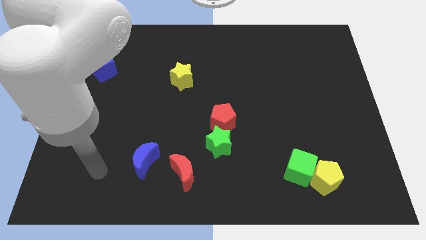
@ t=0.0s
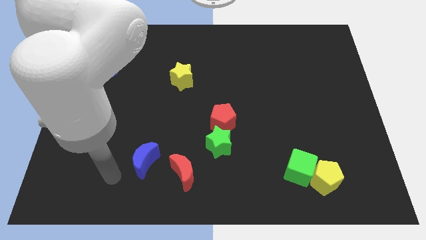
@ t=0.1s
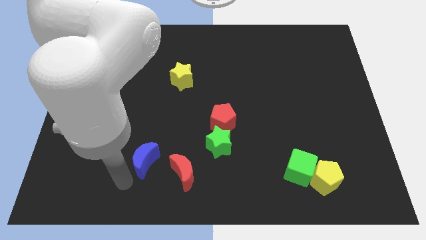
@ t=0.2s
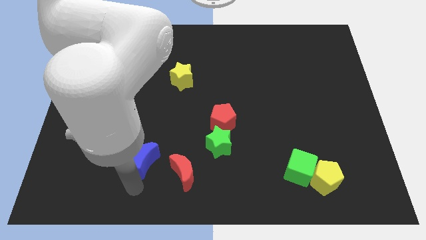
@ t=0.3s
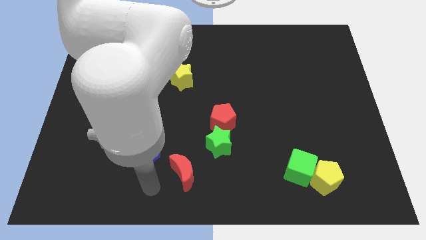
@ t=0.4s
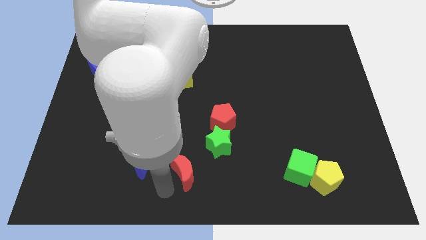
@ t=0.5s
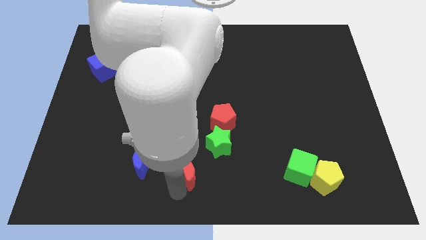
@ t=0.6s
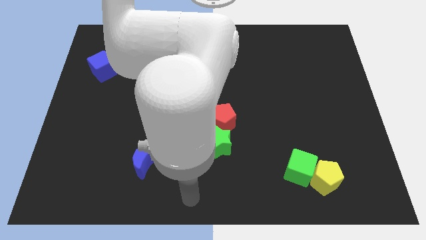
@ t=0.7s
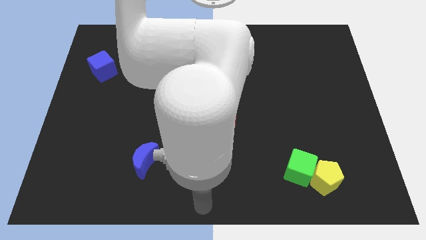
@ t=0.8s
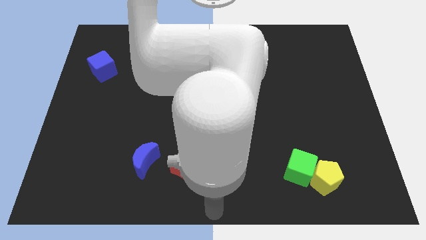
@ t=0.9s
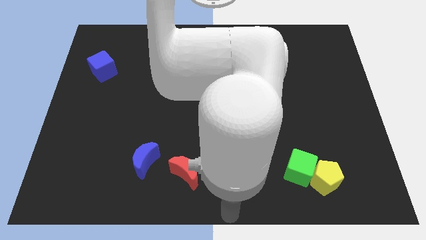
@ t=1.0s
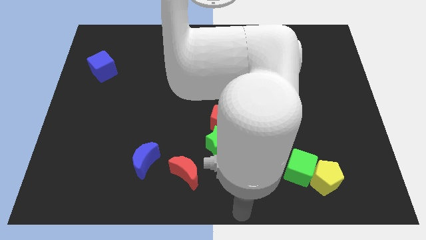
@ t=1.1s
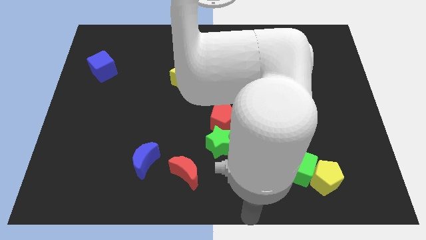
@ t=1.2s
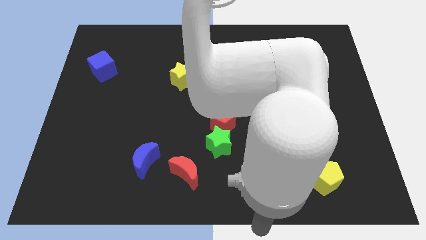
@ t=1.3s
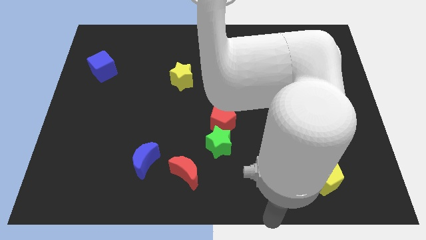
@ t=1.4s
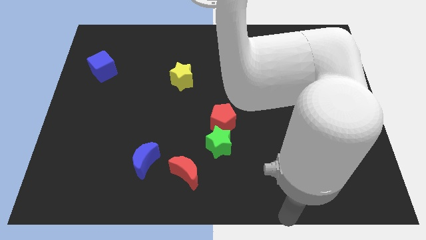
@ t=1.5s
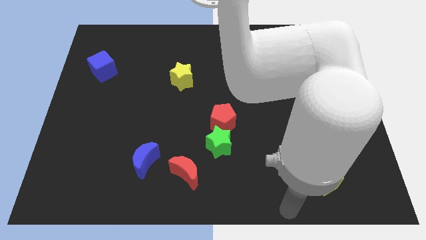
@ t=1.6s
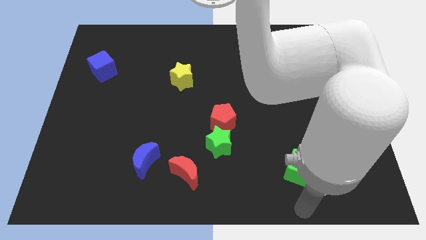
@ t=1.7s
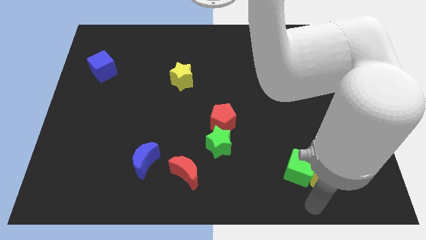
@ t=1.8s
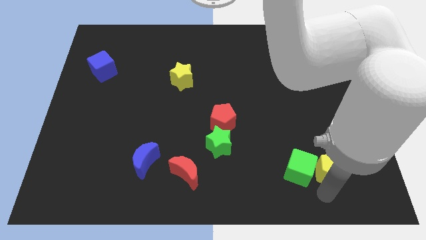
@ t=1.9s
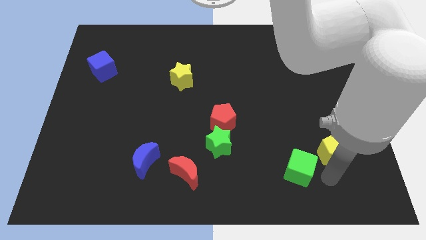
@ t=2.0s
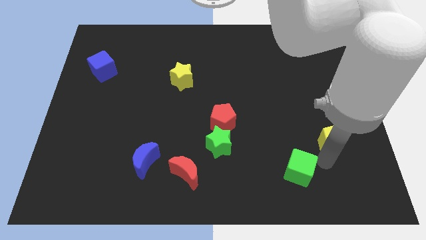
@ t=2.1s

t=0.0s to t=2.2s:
move the green cube away from the yellow pentagon

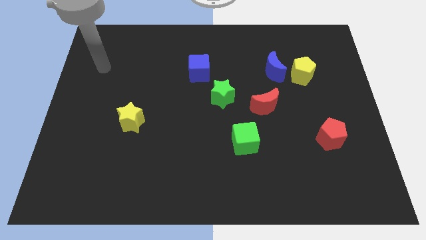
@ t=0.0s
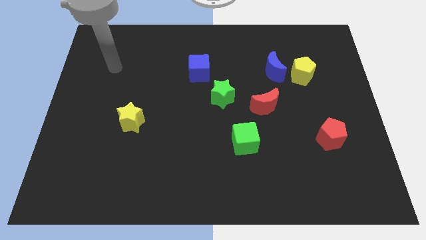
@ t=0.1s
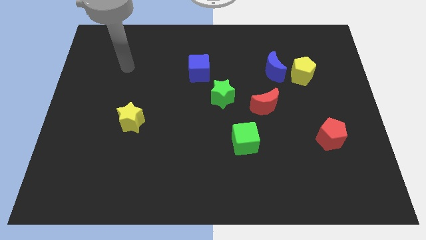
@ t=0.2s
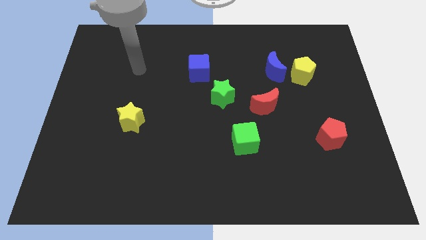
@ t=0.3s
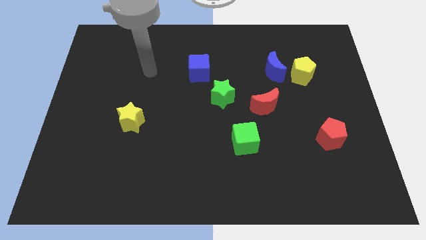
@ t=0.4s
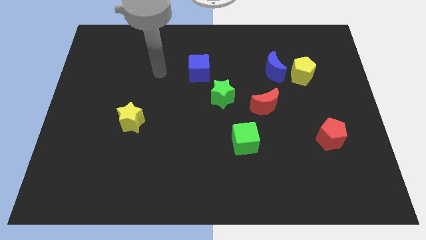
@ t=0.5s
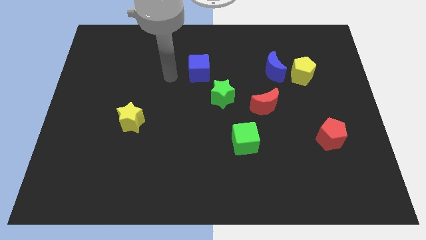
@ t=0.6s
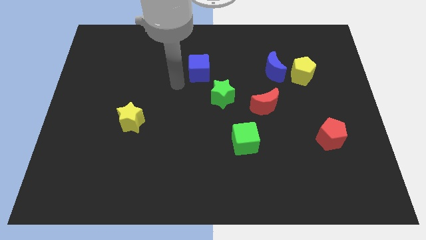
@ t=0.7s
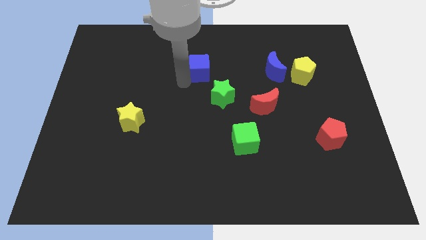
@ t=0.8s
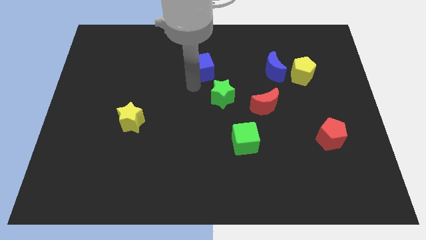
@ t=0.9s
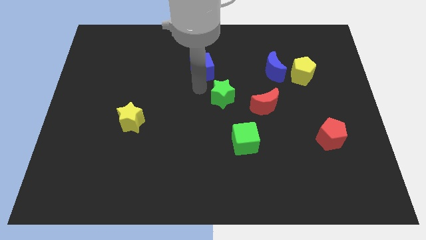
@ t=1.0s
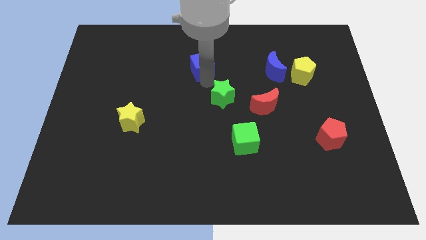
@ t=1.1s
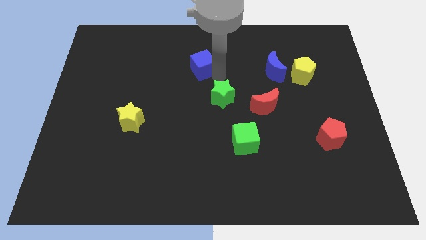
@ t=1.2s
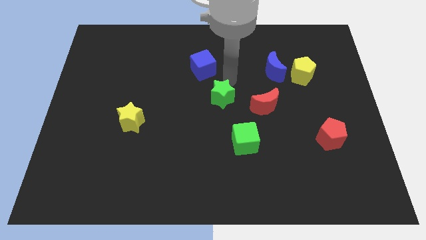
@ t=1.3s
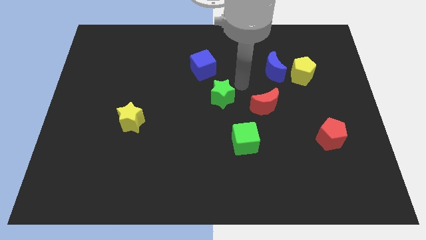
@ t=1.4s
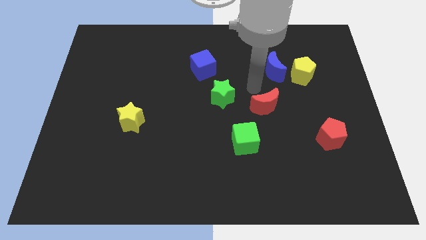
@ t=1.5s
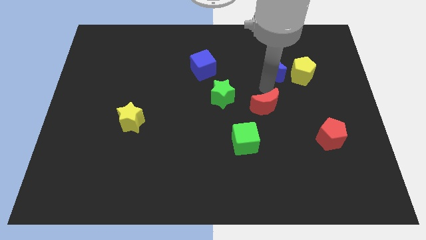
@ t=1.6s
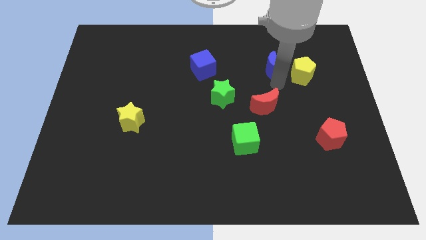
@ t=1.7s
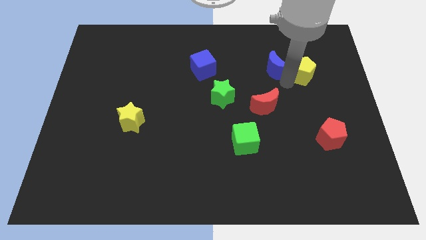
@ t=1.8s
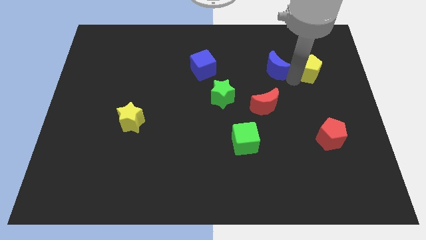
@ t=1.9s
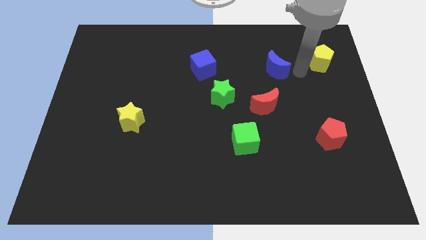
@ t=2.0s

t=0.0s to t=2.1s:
pull the blue moon apart from the yellow pentagon

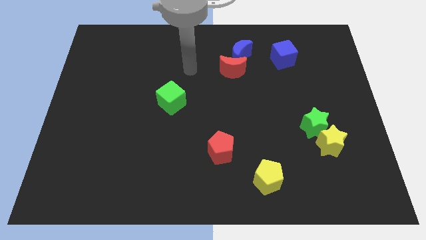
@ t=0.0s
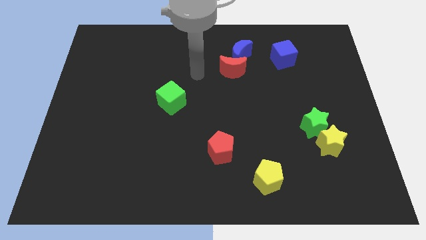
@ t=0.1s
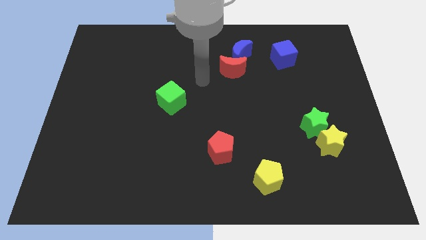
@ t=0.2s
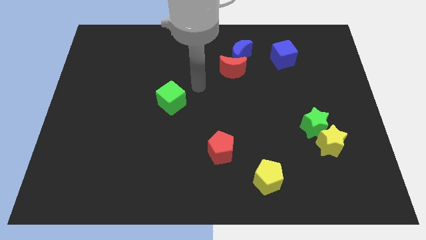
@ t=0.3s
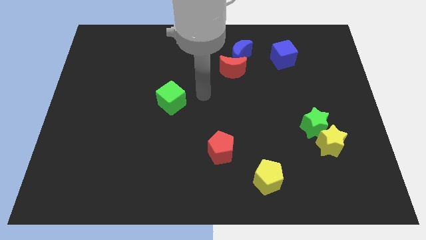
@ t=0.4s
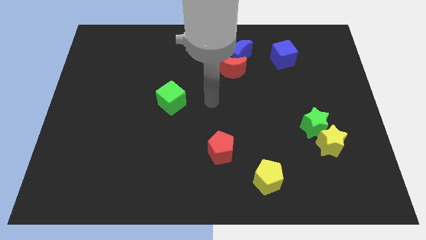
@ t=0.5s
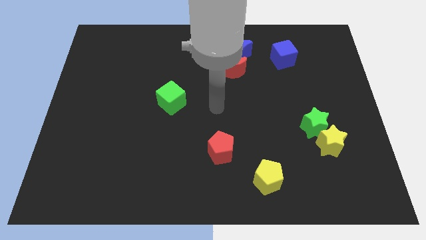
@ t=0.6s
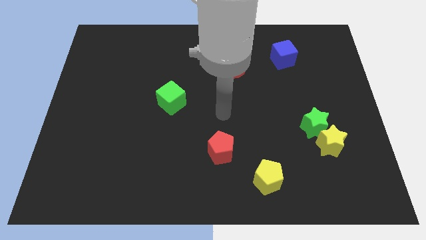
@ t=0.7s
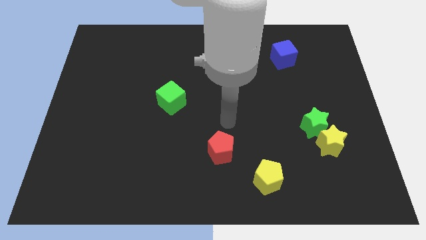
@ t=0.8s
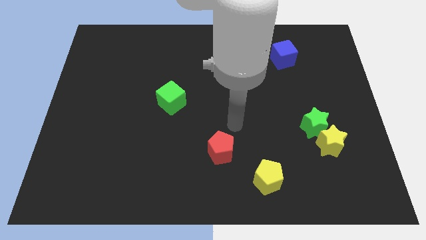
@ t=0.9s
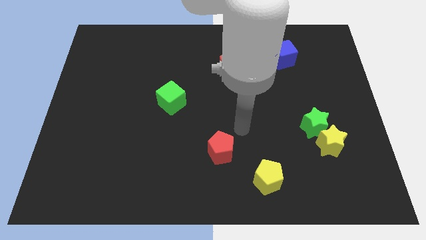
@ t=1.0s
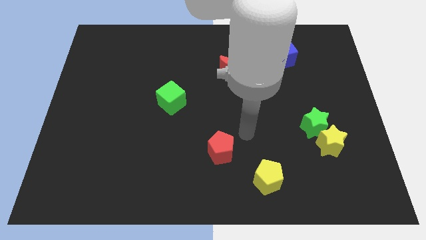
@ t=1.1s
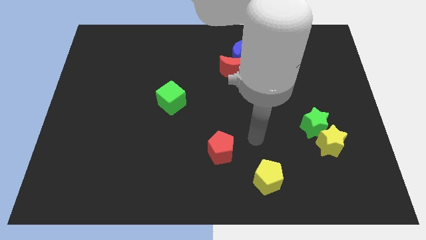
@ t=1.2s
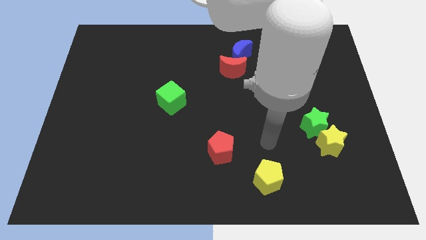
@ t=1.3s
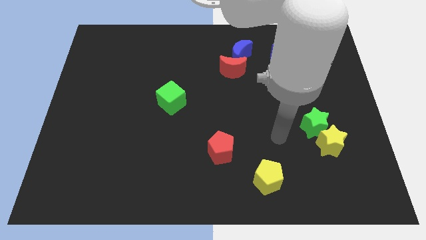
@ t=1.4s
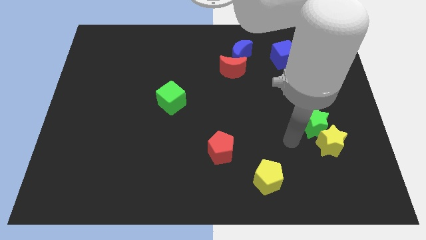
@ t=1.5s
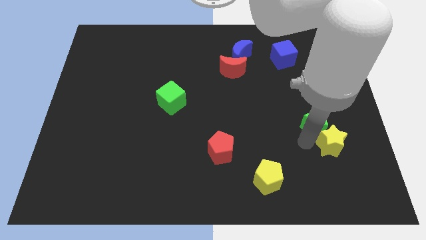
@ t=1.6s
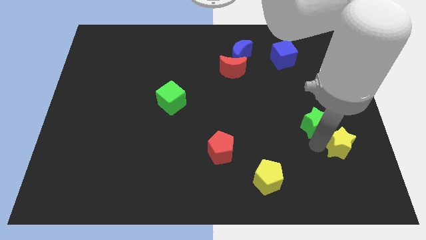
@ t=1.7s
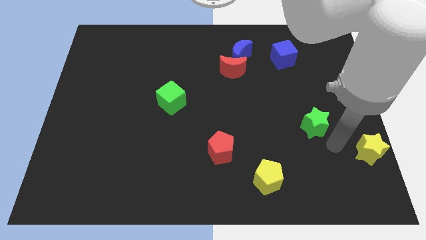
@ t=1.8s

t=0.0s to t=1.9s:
pull the green star apart from the yellow star

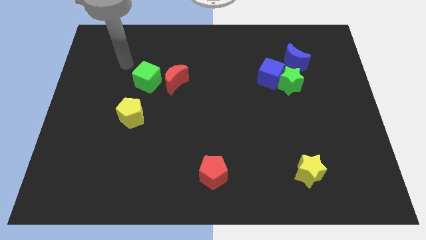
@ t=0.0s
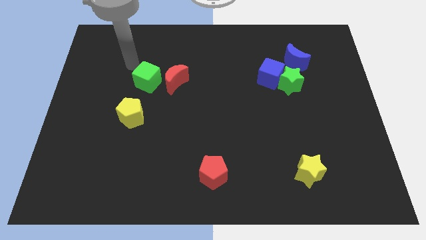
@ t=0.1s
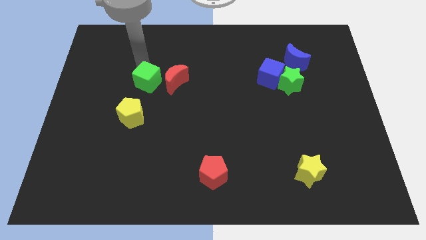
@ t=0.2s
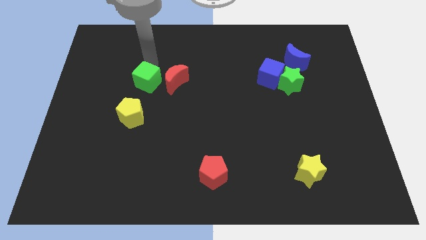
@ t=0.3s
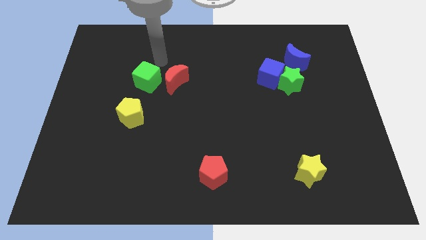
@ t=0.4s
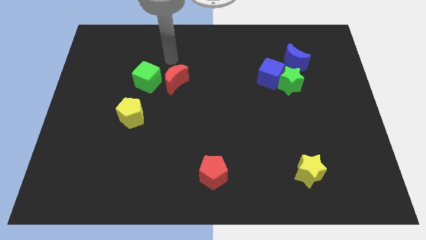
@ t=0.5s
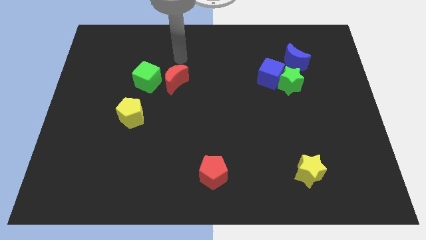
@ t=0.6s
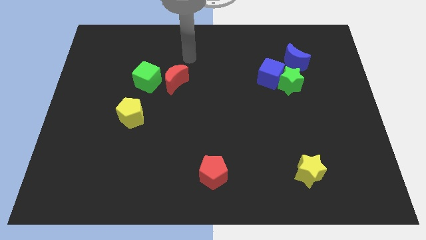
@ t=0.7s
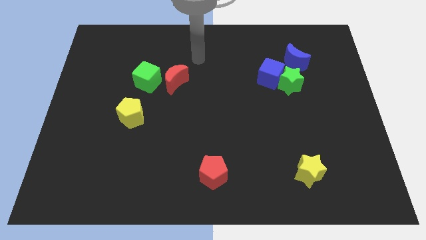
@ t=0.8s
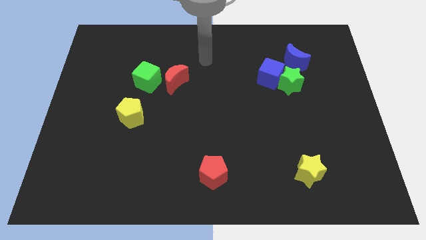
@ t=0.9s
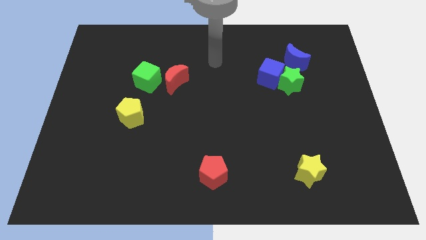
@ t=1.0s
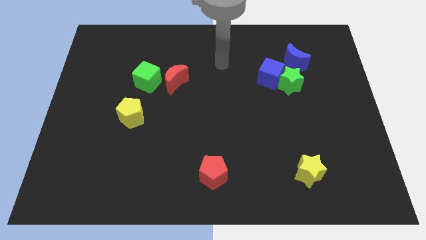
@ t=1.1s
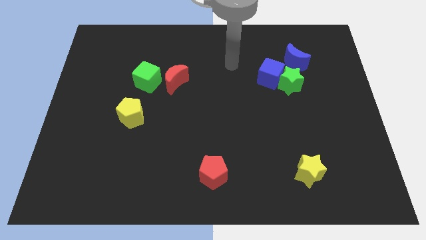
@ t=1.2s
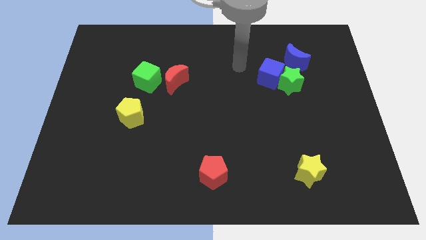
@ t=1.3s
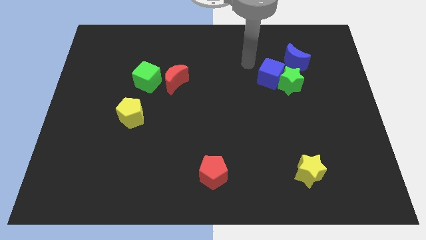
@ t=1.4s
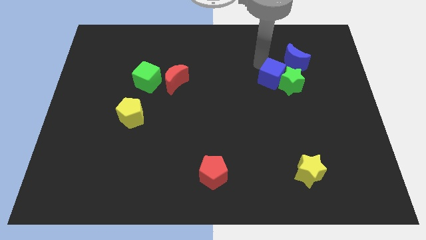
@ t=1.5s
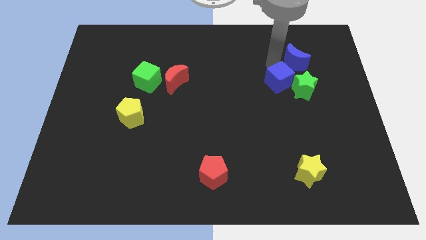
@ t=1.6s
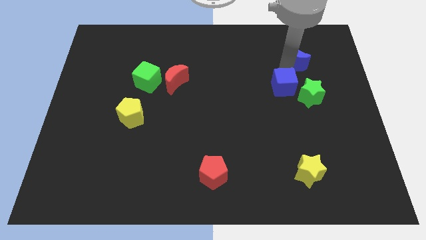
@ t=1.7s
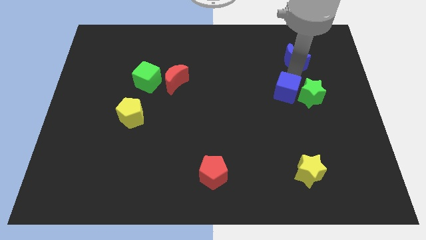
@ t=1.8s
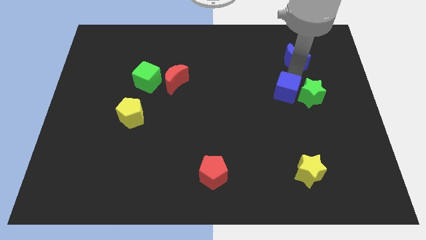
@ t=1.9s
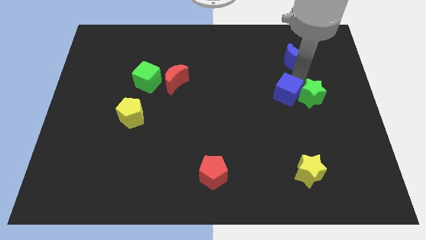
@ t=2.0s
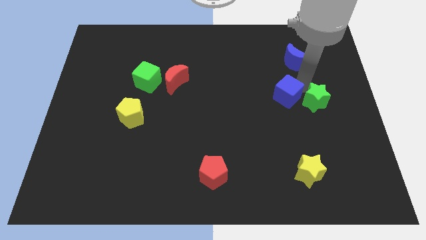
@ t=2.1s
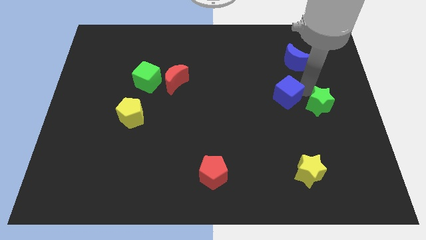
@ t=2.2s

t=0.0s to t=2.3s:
pull the green star apart from the blue cube and blue moon

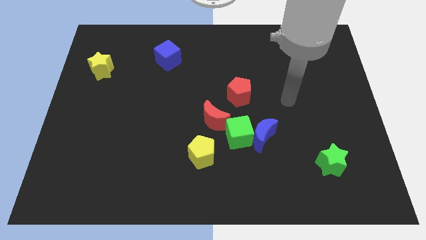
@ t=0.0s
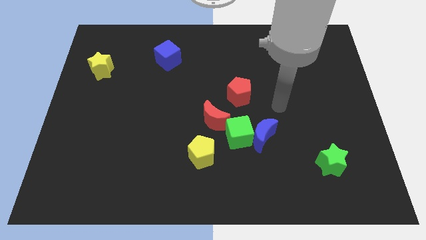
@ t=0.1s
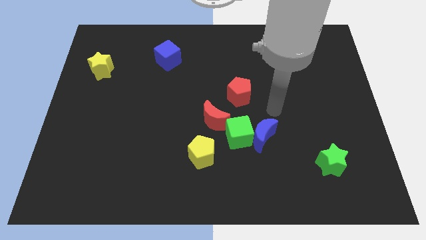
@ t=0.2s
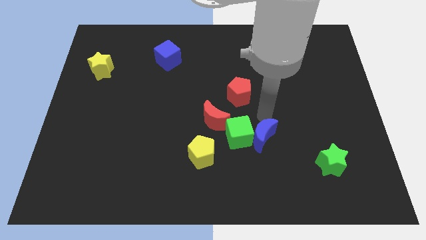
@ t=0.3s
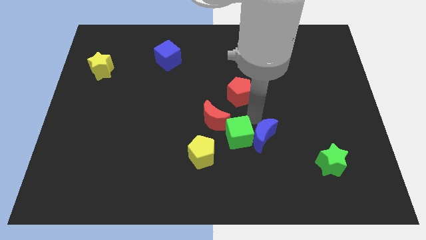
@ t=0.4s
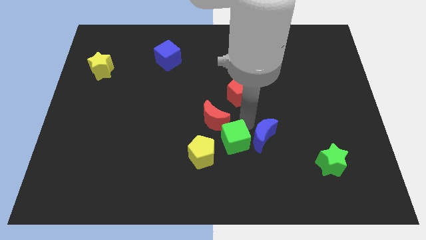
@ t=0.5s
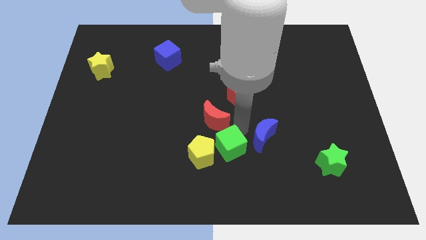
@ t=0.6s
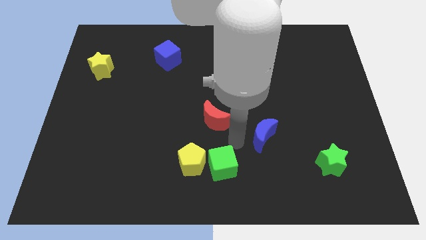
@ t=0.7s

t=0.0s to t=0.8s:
move the blue moon away from the green cube
